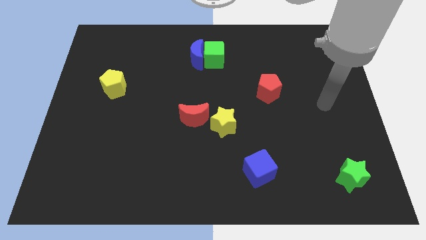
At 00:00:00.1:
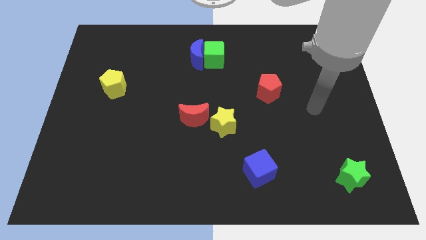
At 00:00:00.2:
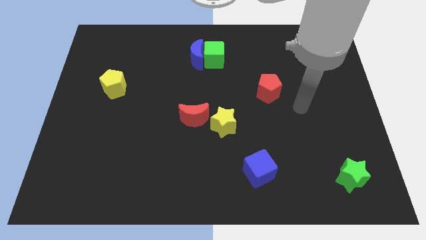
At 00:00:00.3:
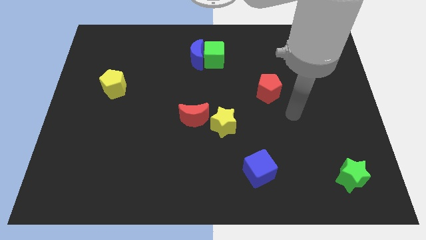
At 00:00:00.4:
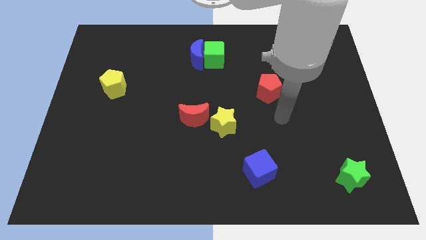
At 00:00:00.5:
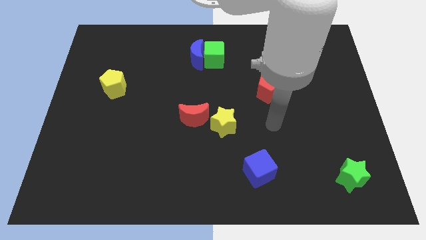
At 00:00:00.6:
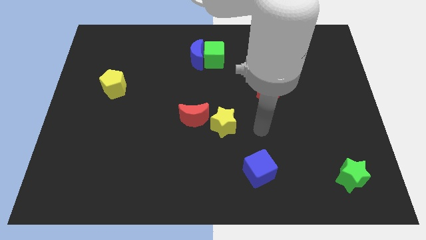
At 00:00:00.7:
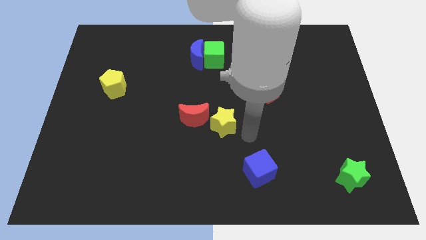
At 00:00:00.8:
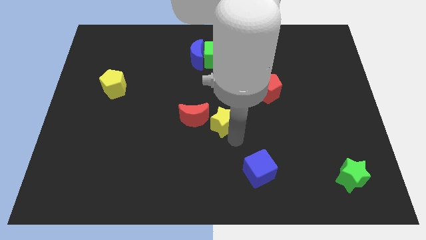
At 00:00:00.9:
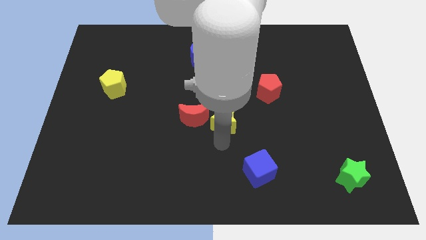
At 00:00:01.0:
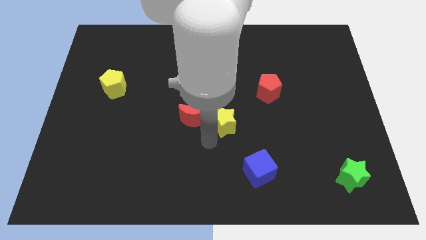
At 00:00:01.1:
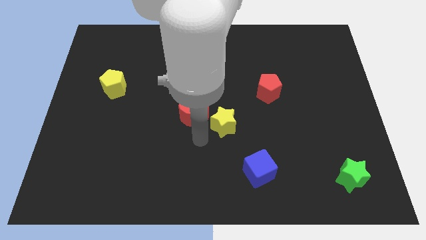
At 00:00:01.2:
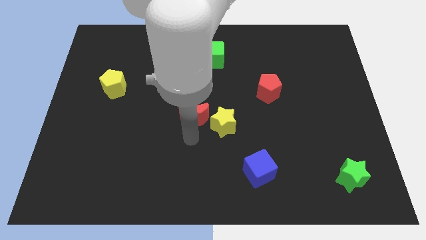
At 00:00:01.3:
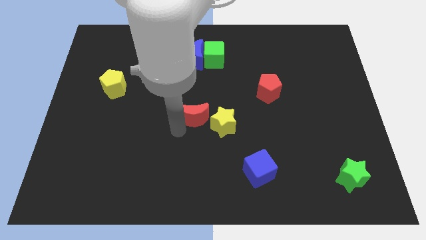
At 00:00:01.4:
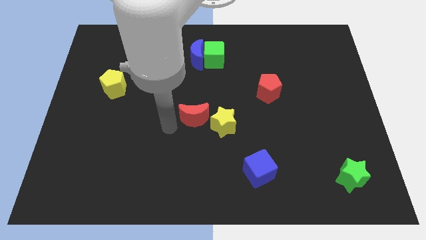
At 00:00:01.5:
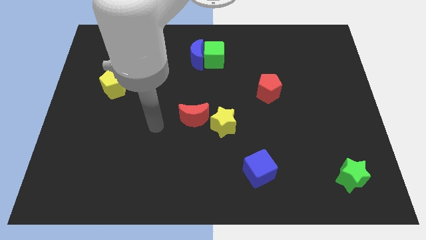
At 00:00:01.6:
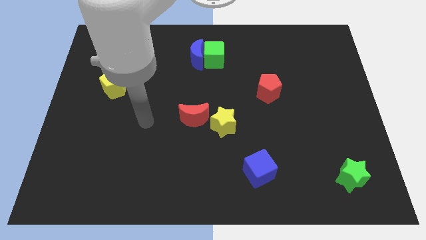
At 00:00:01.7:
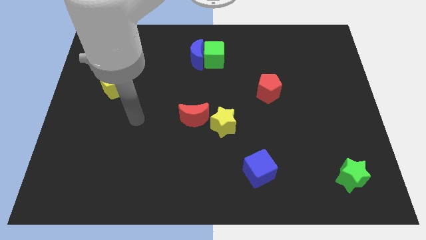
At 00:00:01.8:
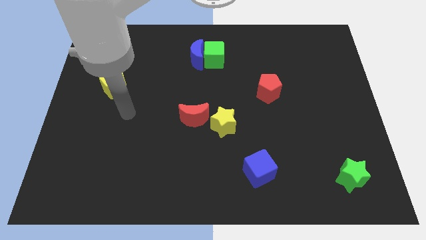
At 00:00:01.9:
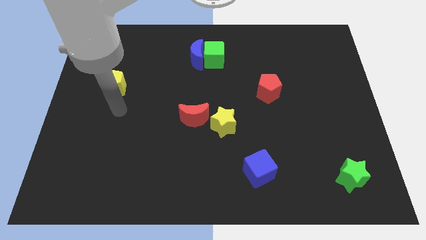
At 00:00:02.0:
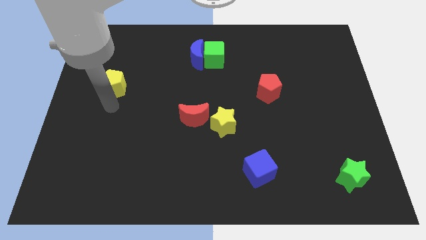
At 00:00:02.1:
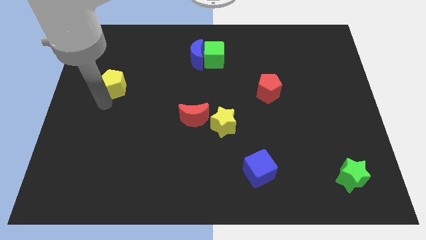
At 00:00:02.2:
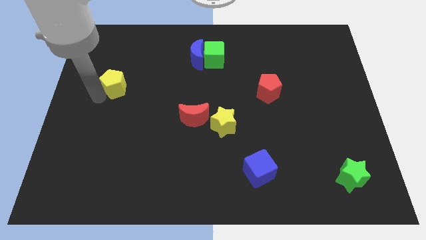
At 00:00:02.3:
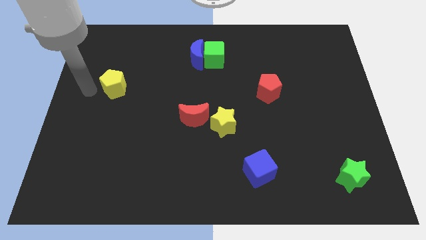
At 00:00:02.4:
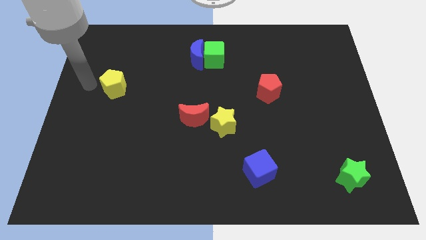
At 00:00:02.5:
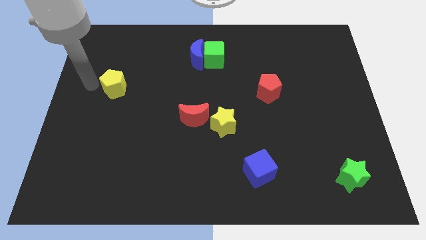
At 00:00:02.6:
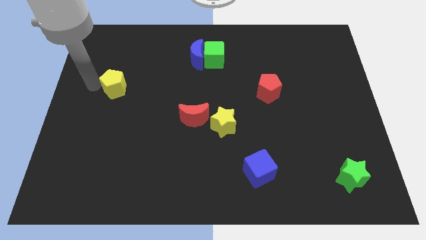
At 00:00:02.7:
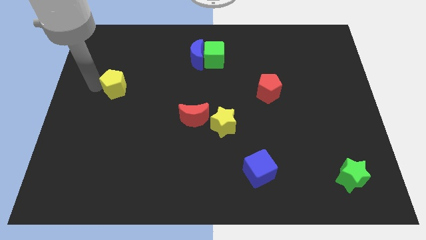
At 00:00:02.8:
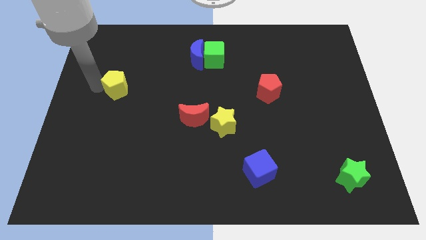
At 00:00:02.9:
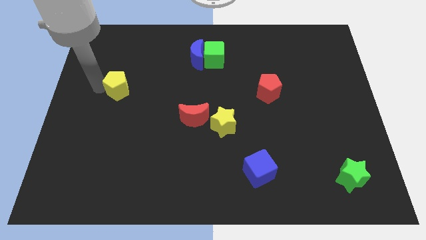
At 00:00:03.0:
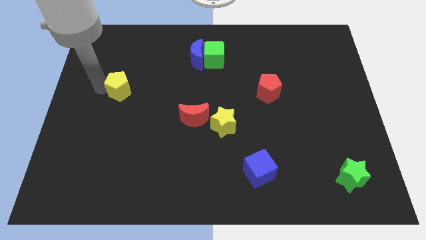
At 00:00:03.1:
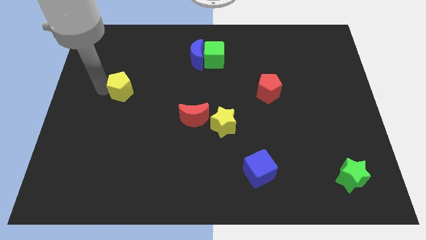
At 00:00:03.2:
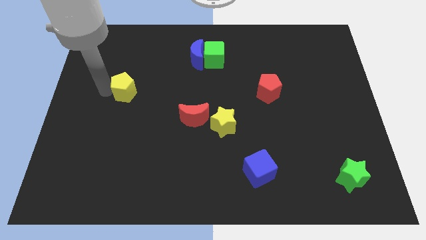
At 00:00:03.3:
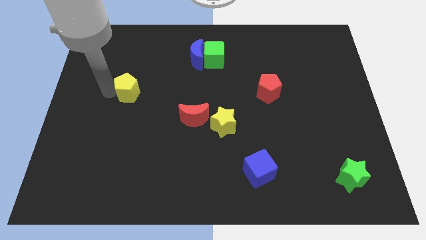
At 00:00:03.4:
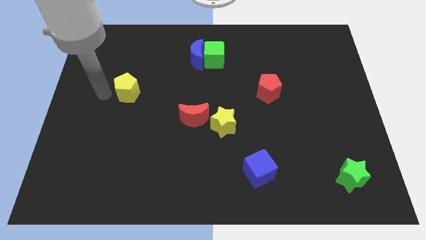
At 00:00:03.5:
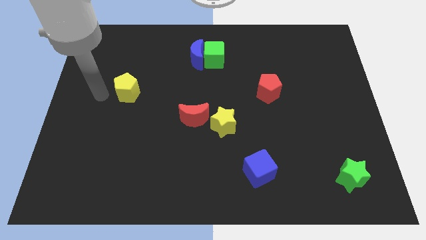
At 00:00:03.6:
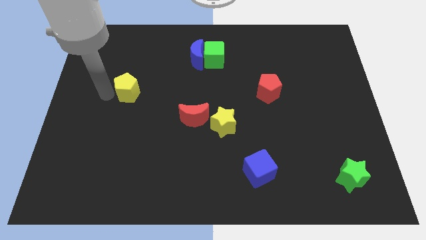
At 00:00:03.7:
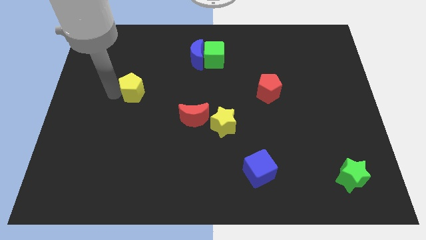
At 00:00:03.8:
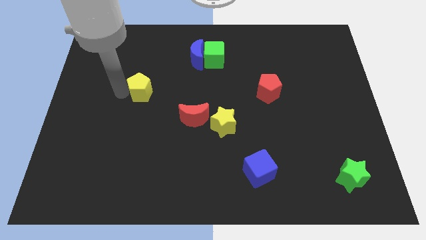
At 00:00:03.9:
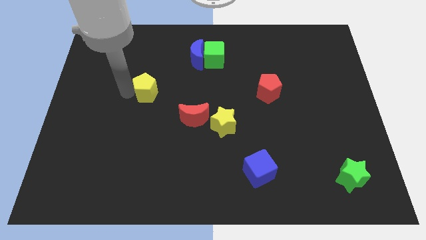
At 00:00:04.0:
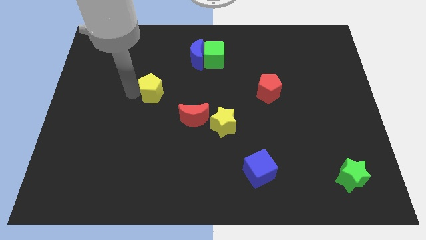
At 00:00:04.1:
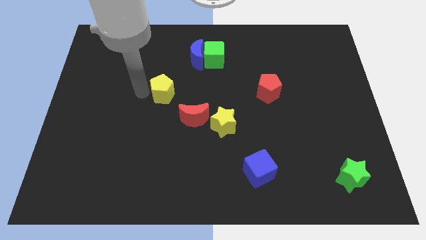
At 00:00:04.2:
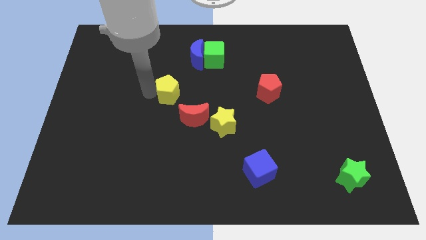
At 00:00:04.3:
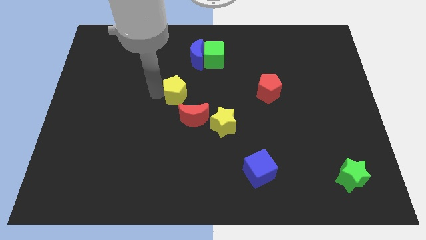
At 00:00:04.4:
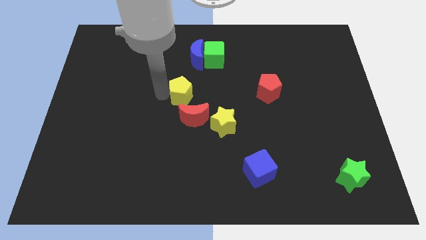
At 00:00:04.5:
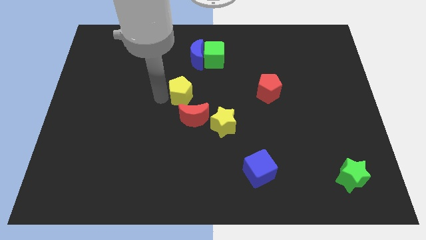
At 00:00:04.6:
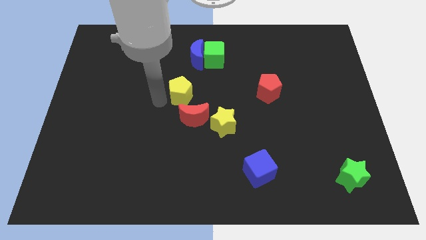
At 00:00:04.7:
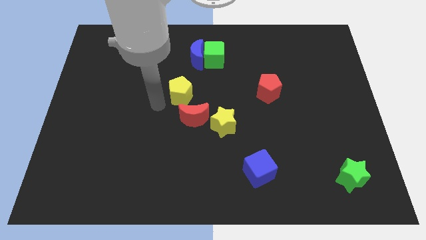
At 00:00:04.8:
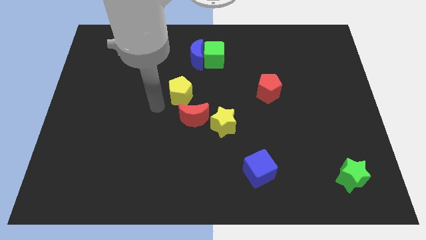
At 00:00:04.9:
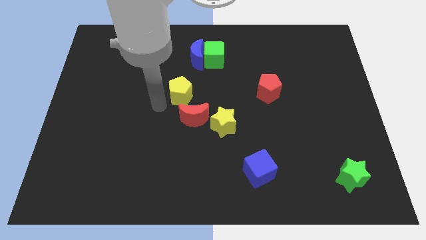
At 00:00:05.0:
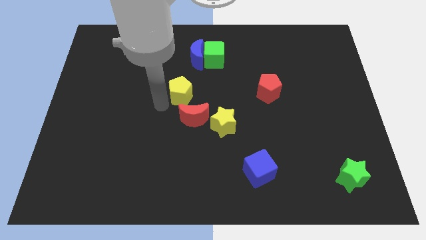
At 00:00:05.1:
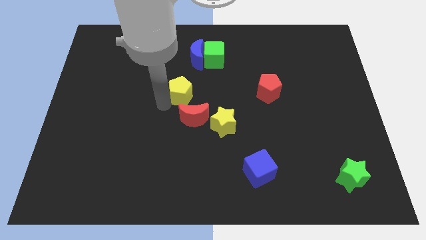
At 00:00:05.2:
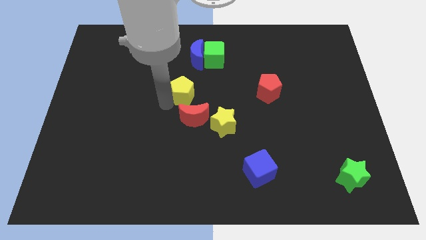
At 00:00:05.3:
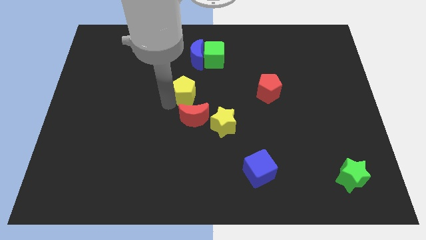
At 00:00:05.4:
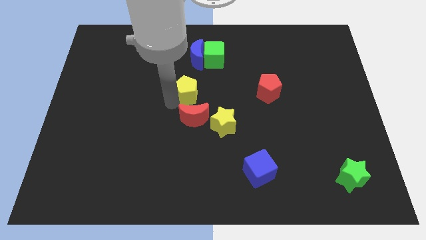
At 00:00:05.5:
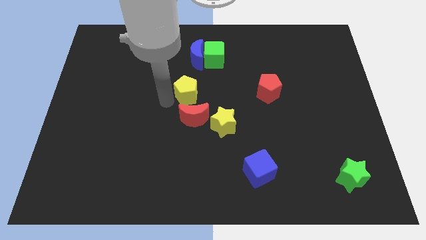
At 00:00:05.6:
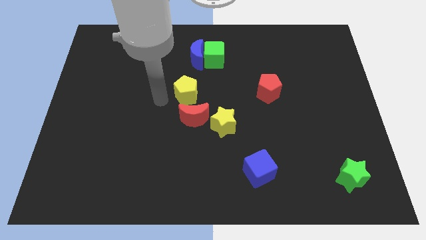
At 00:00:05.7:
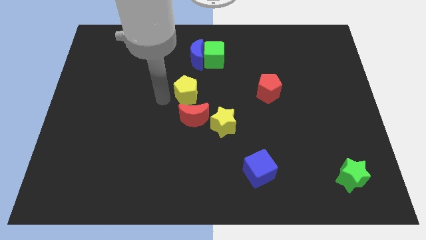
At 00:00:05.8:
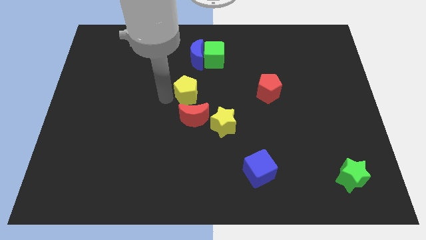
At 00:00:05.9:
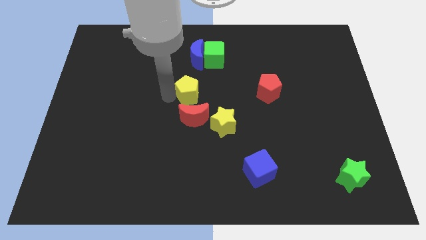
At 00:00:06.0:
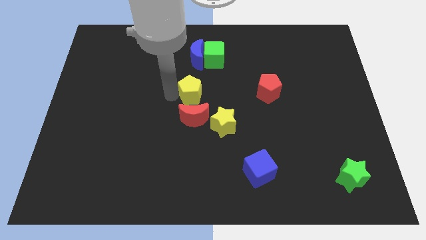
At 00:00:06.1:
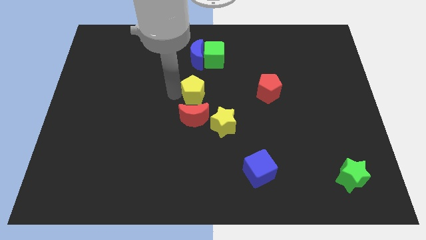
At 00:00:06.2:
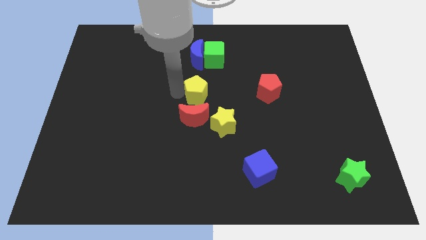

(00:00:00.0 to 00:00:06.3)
push the yellow pentagon to the bottom side of the green cube
